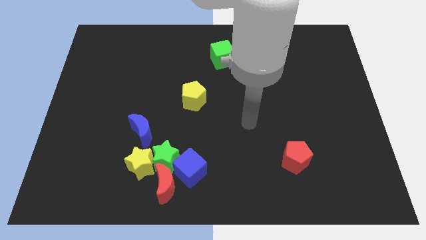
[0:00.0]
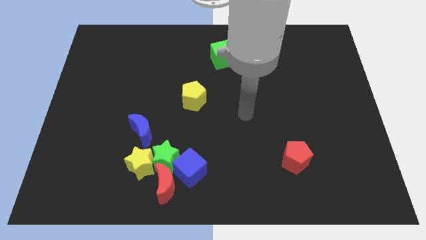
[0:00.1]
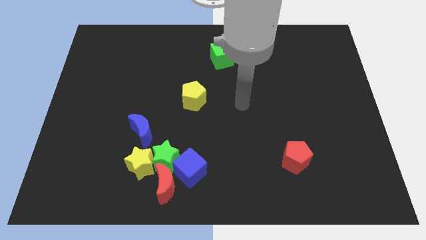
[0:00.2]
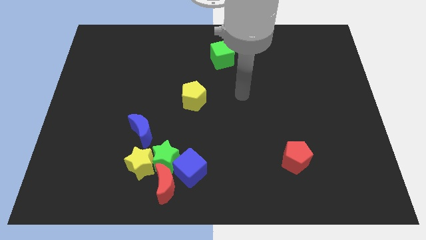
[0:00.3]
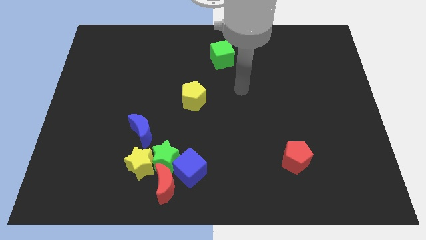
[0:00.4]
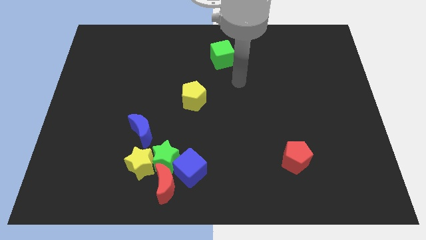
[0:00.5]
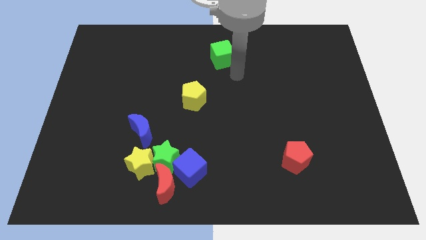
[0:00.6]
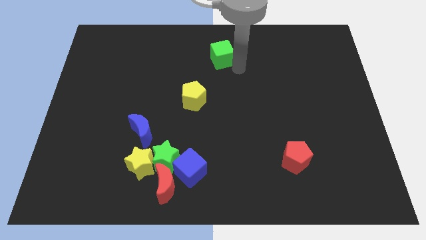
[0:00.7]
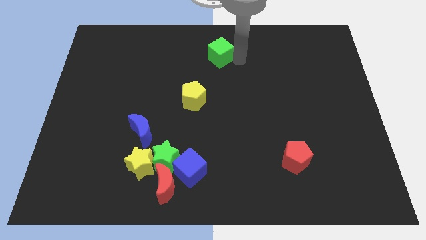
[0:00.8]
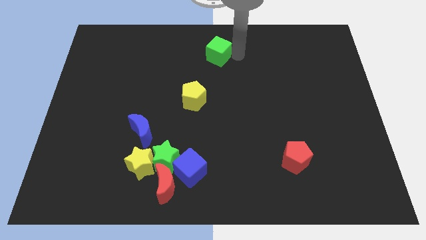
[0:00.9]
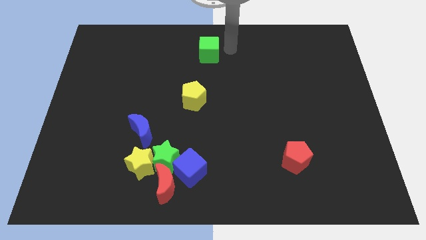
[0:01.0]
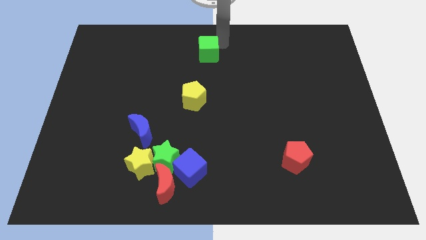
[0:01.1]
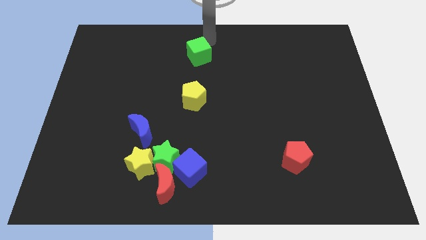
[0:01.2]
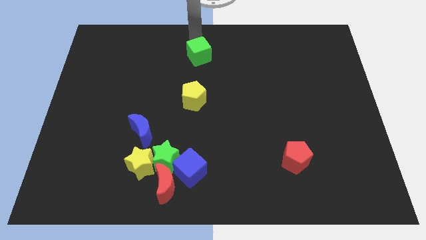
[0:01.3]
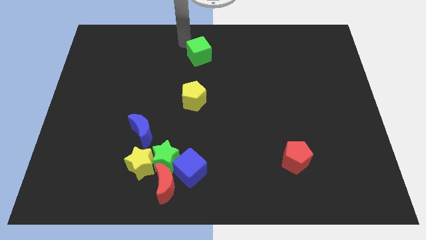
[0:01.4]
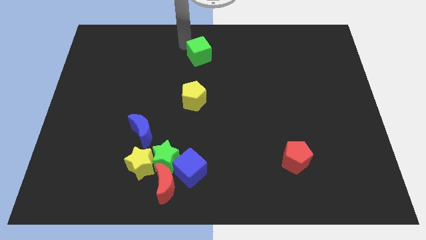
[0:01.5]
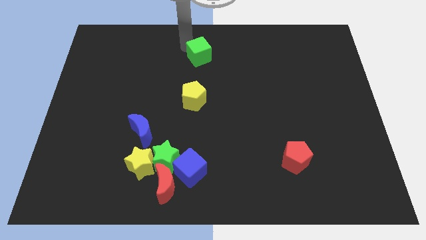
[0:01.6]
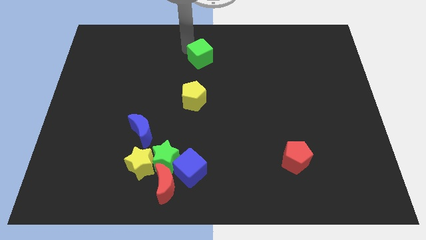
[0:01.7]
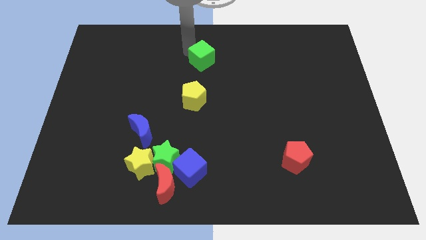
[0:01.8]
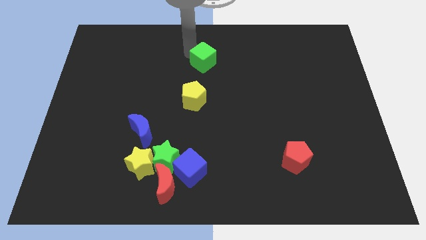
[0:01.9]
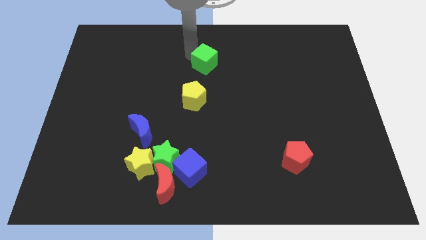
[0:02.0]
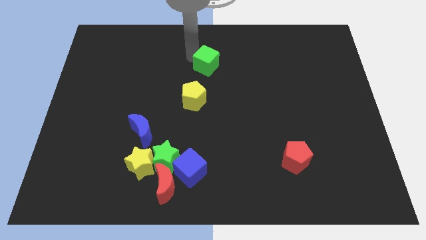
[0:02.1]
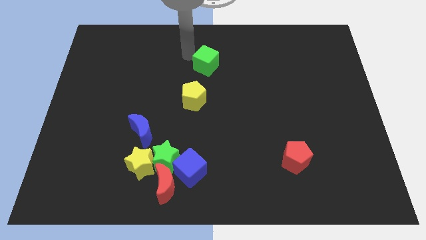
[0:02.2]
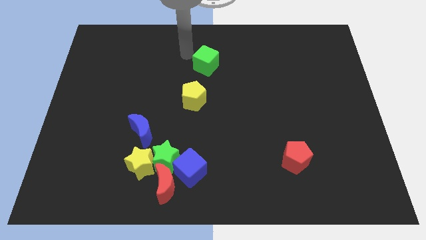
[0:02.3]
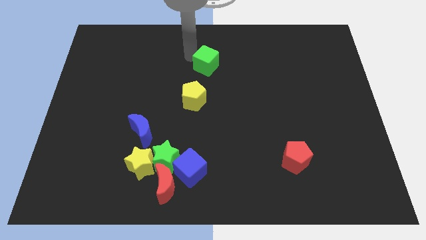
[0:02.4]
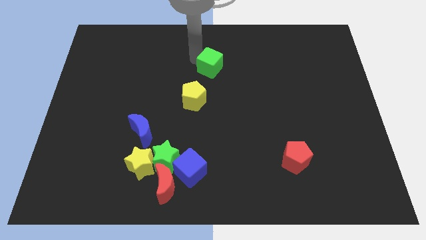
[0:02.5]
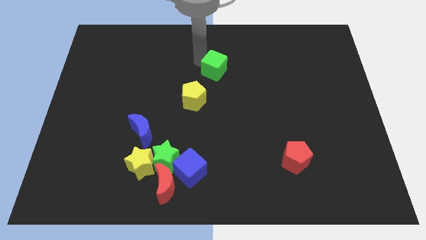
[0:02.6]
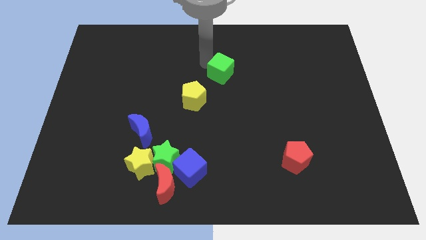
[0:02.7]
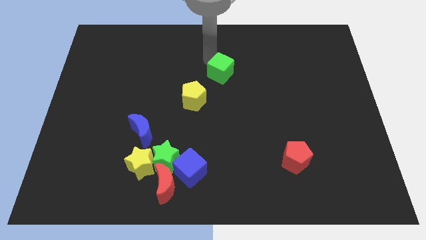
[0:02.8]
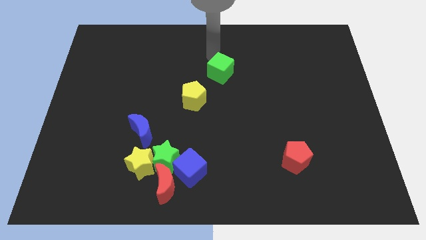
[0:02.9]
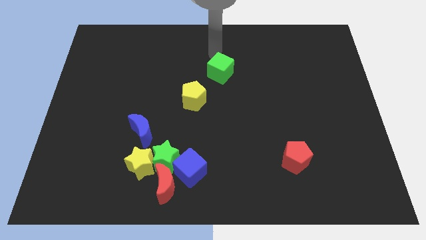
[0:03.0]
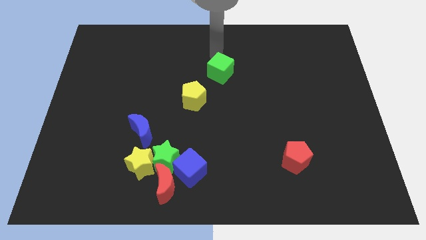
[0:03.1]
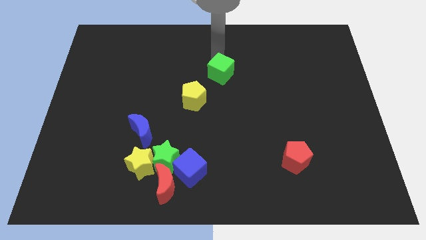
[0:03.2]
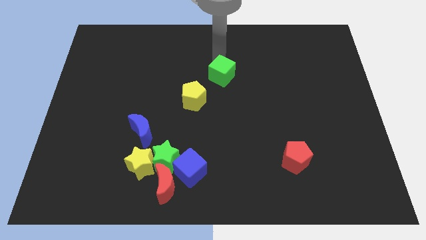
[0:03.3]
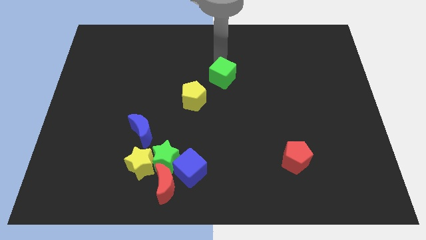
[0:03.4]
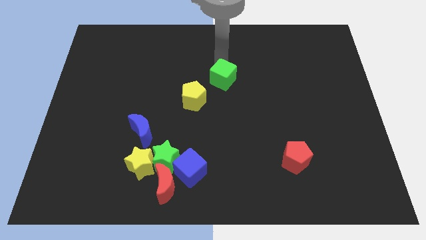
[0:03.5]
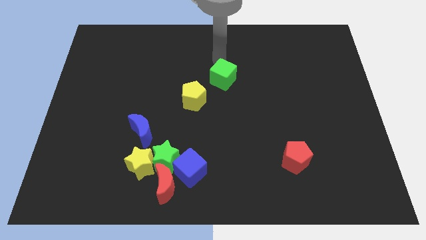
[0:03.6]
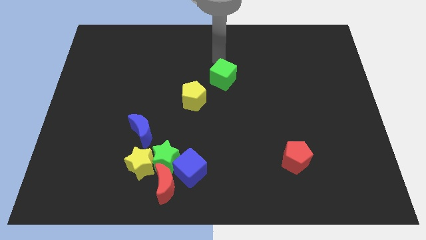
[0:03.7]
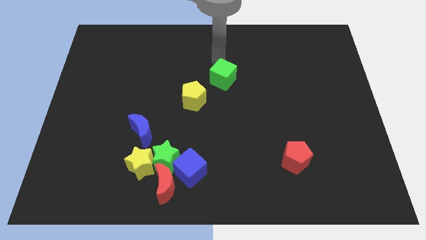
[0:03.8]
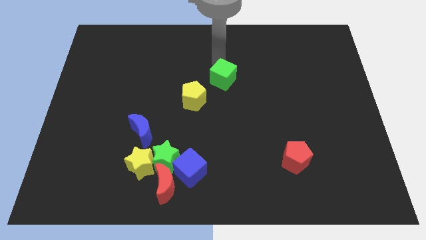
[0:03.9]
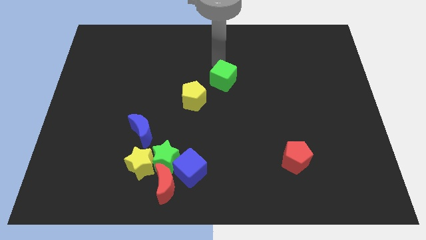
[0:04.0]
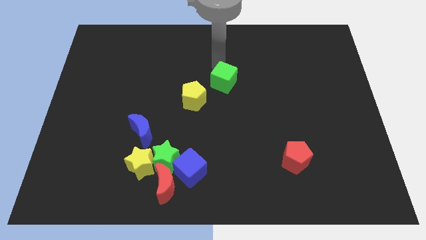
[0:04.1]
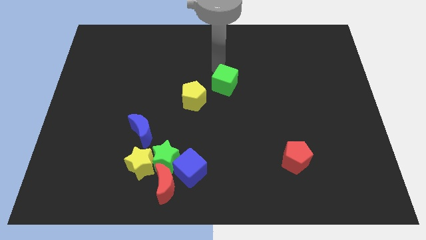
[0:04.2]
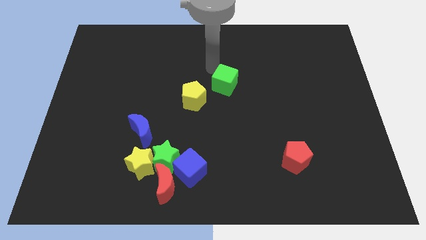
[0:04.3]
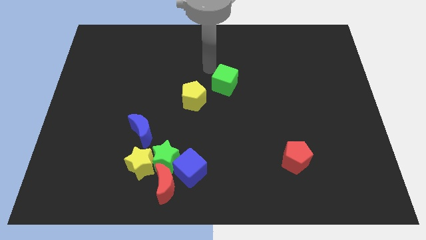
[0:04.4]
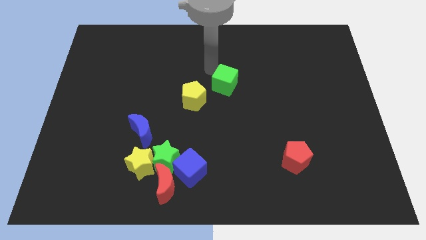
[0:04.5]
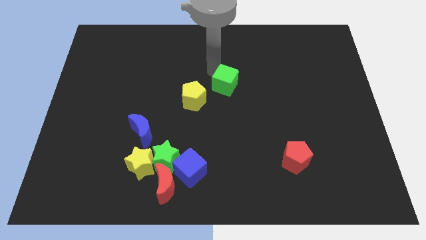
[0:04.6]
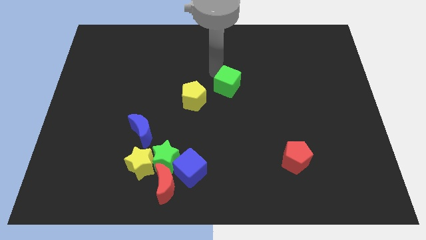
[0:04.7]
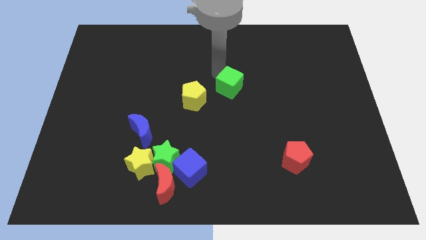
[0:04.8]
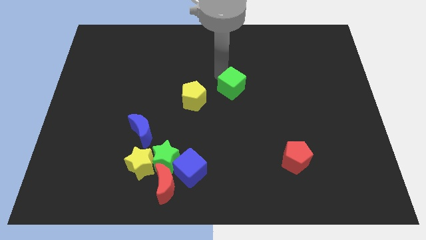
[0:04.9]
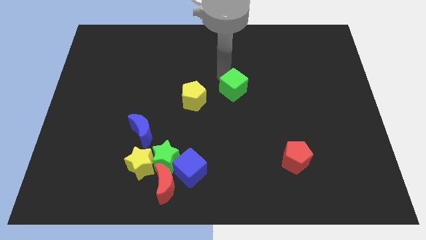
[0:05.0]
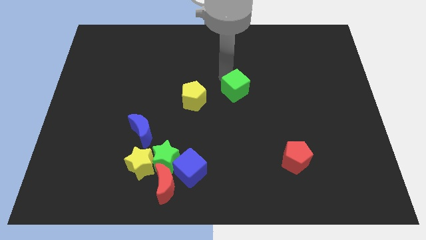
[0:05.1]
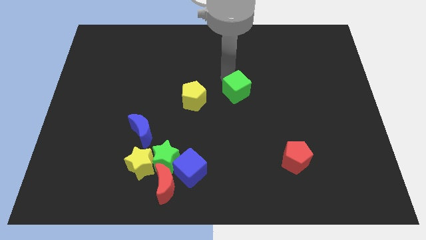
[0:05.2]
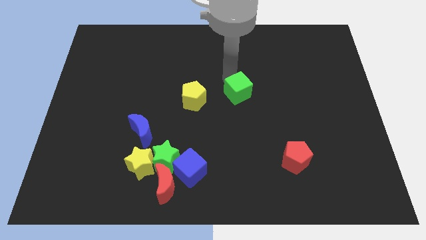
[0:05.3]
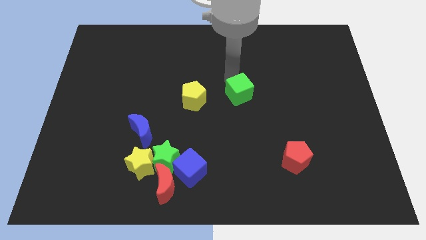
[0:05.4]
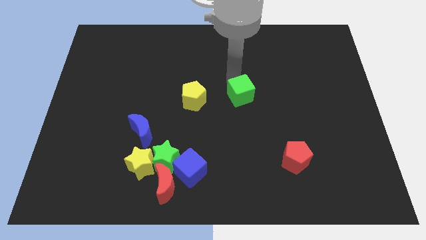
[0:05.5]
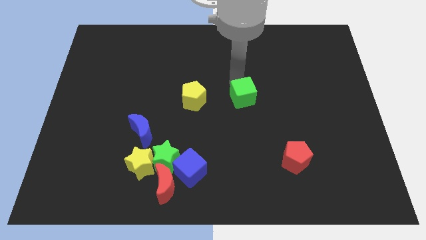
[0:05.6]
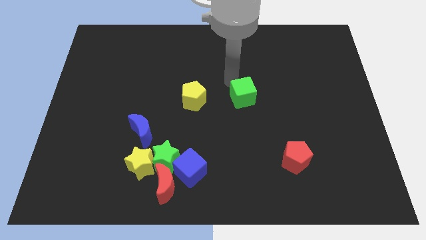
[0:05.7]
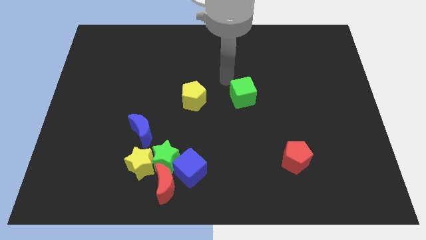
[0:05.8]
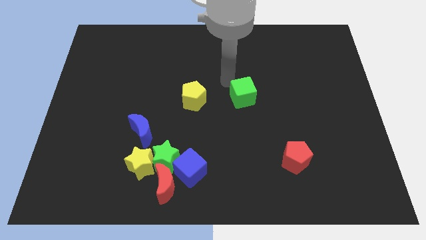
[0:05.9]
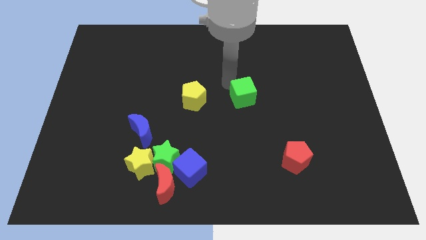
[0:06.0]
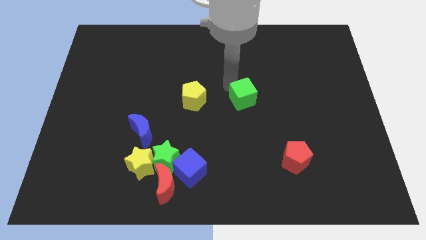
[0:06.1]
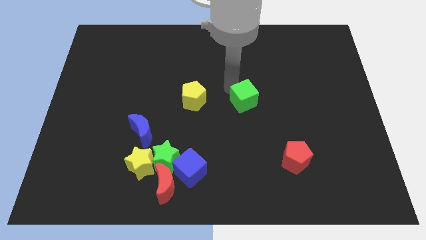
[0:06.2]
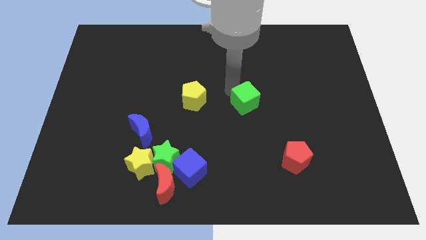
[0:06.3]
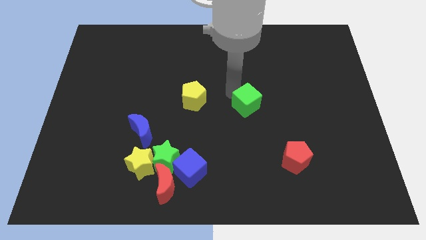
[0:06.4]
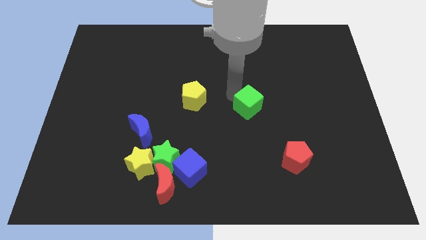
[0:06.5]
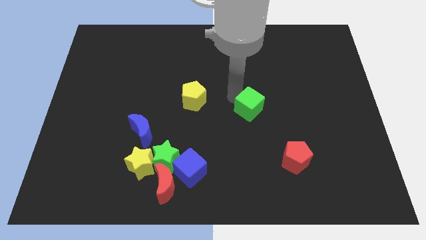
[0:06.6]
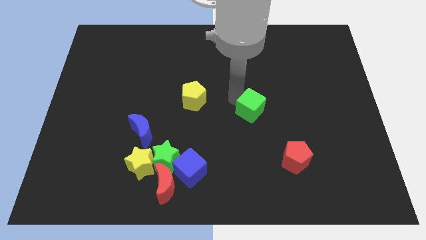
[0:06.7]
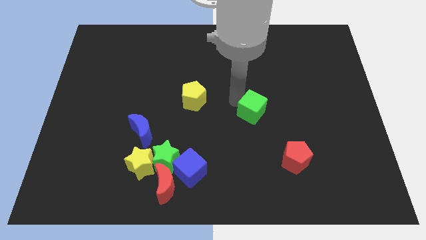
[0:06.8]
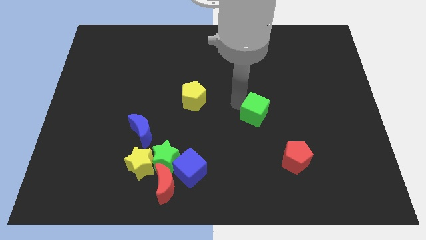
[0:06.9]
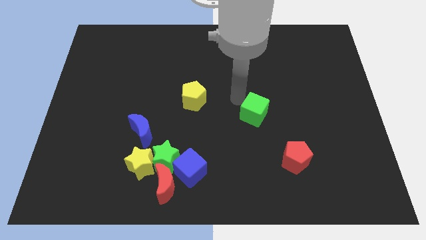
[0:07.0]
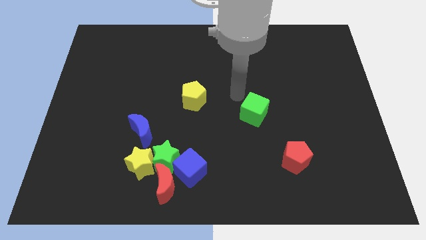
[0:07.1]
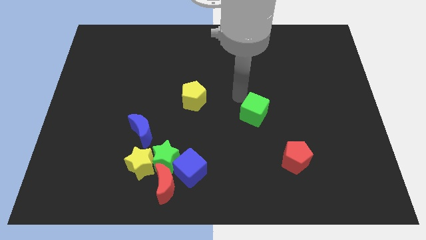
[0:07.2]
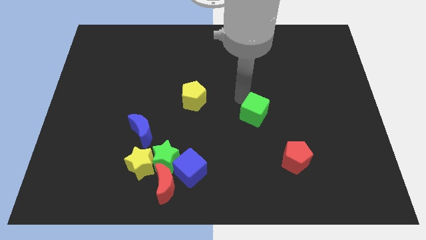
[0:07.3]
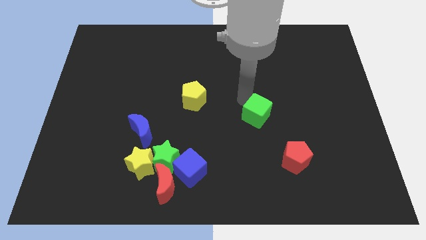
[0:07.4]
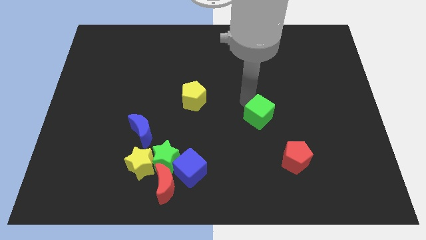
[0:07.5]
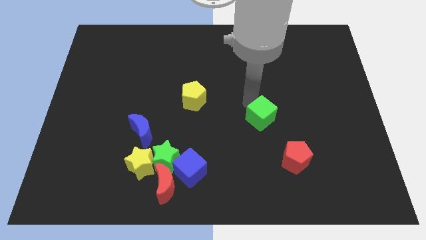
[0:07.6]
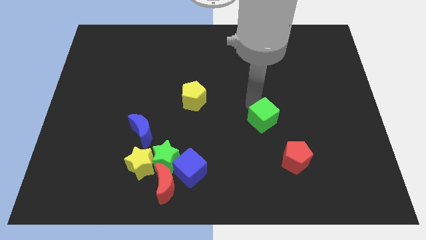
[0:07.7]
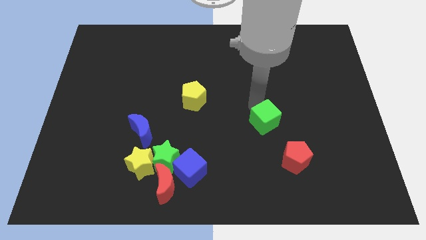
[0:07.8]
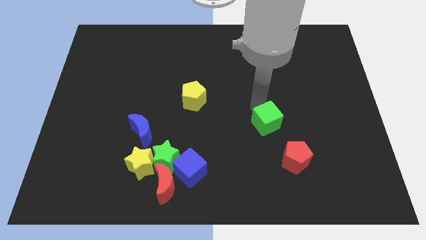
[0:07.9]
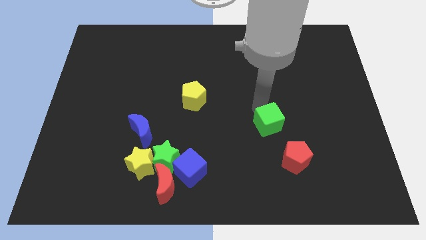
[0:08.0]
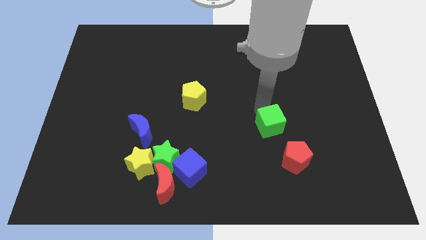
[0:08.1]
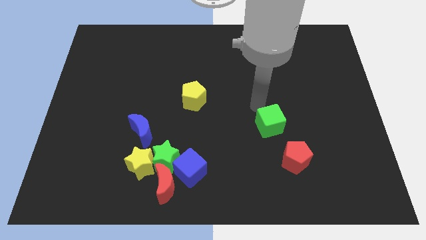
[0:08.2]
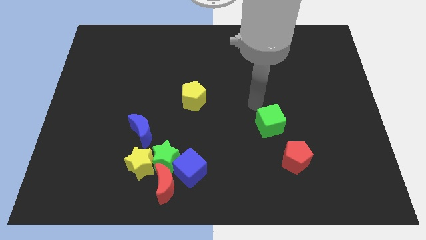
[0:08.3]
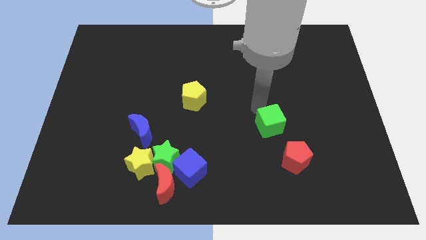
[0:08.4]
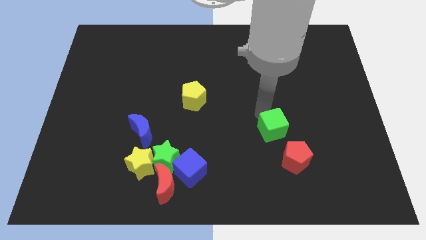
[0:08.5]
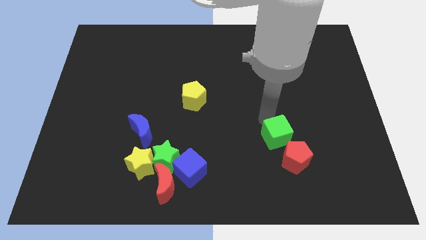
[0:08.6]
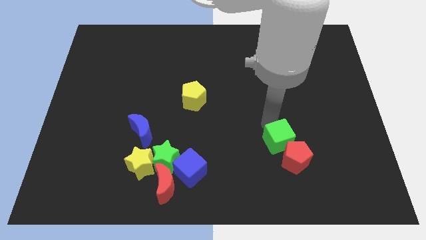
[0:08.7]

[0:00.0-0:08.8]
push the green cube towards the red pentagon
